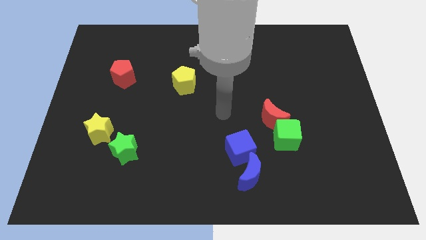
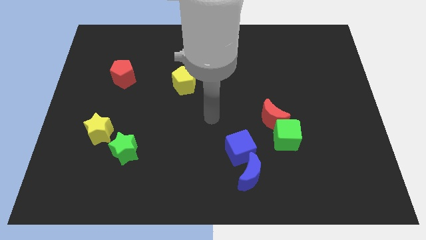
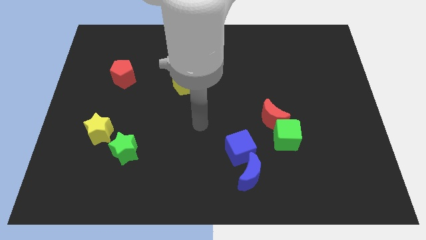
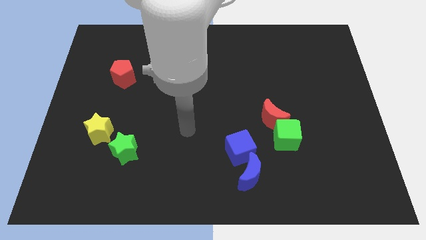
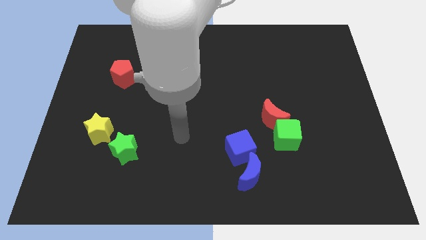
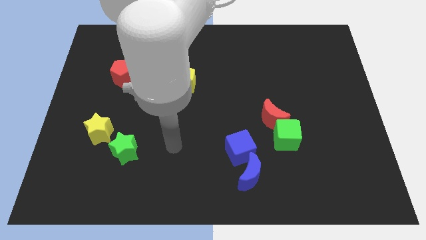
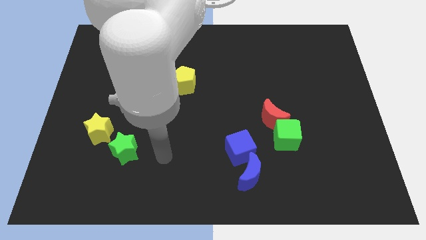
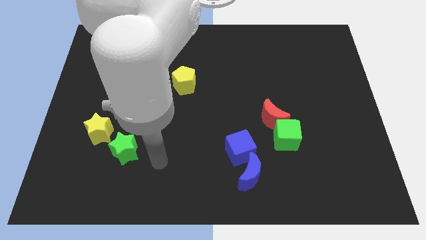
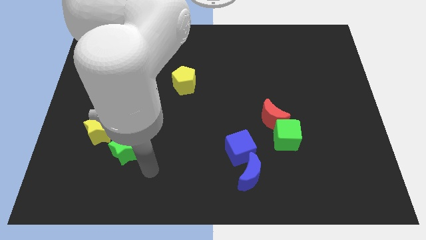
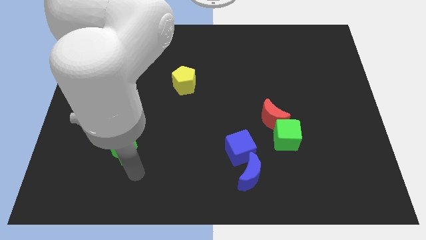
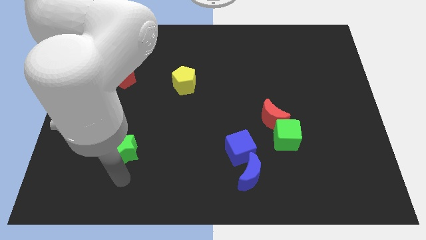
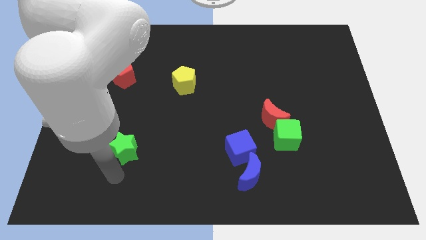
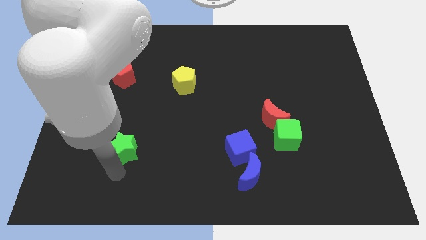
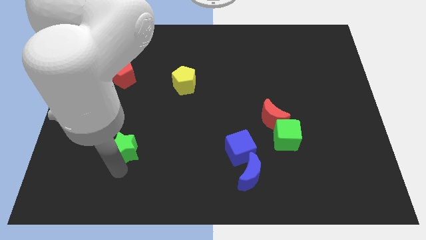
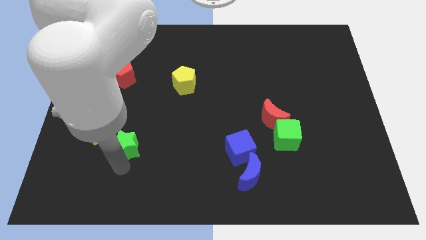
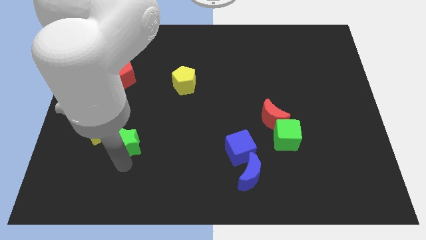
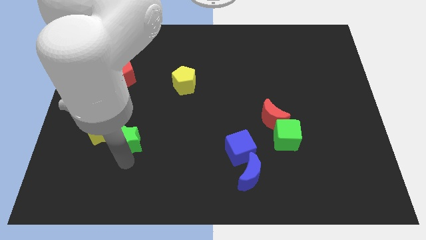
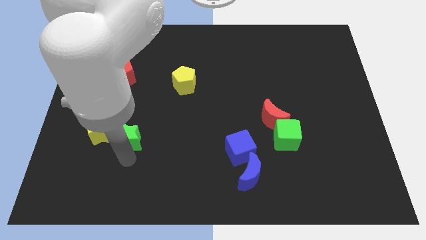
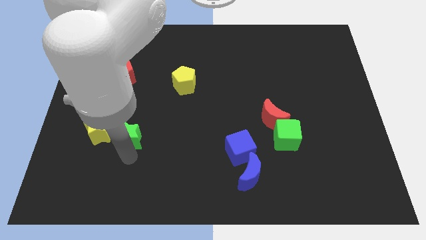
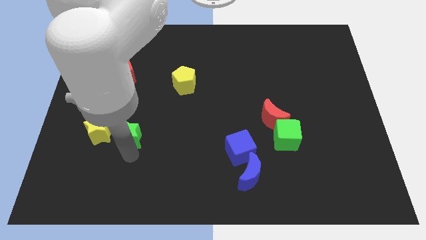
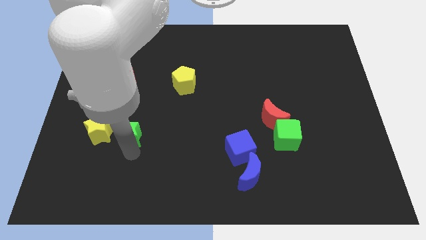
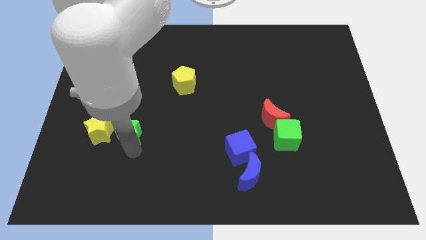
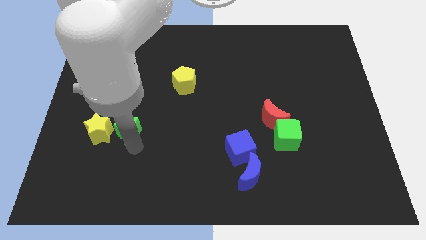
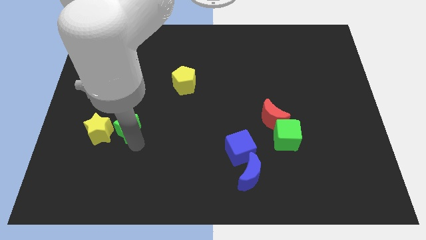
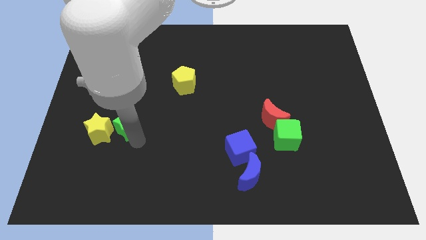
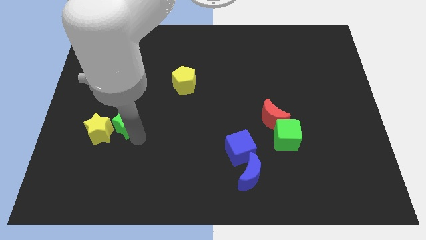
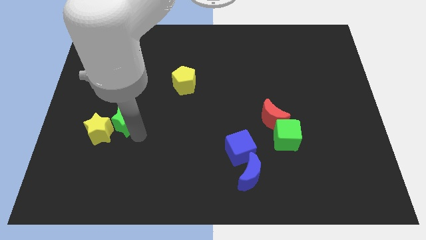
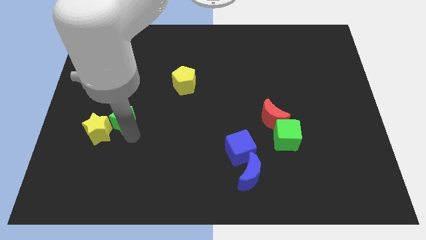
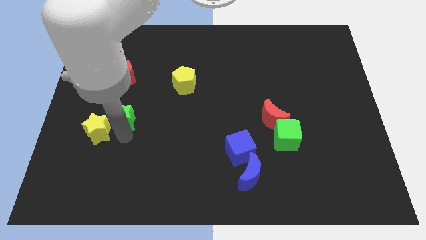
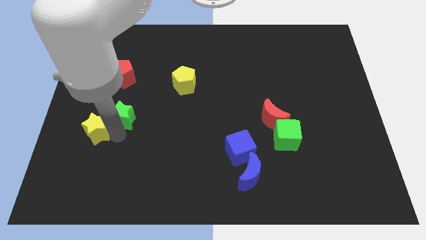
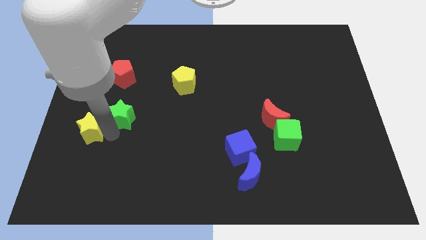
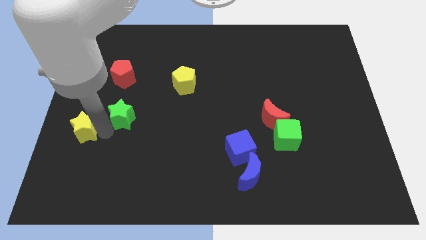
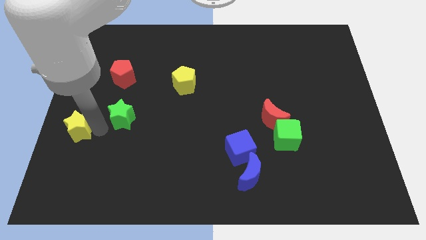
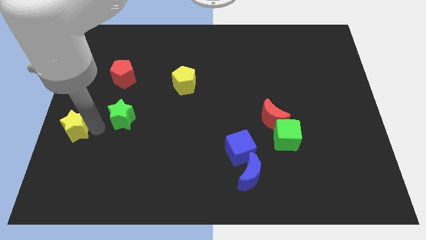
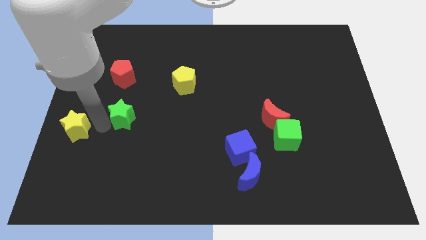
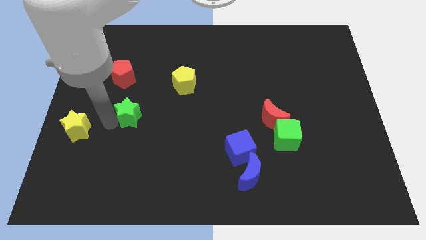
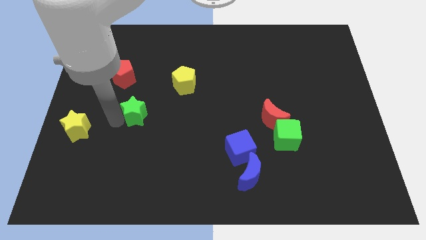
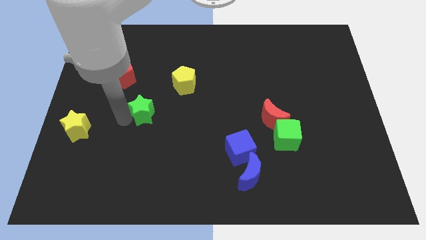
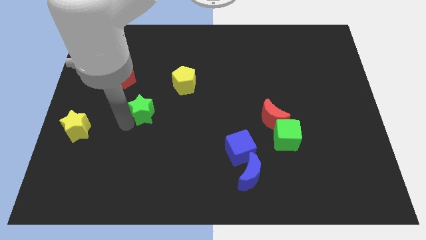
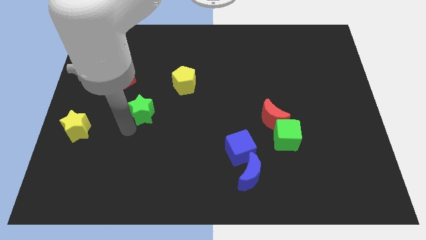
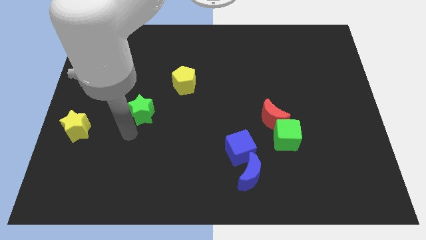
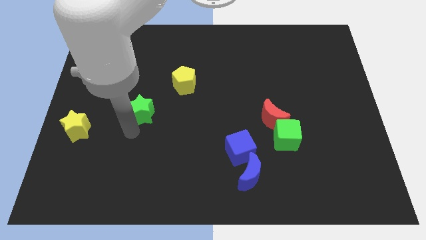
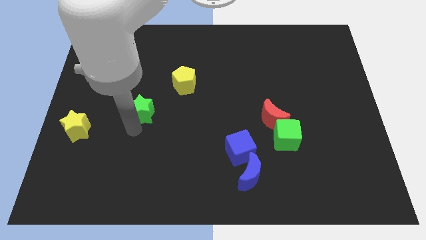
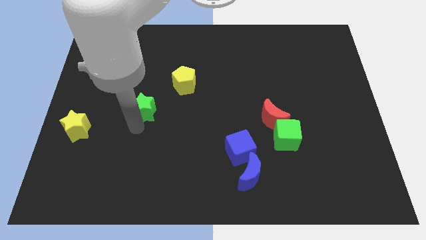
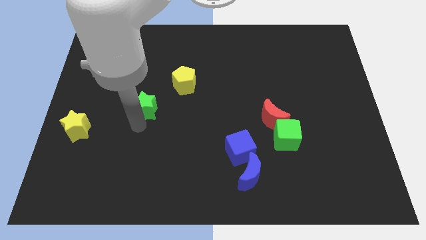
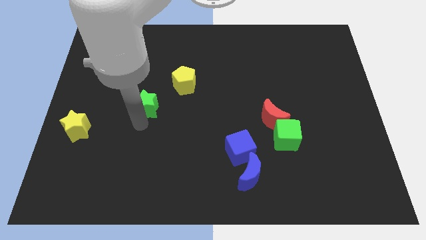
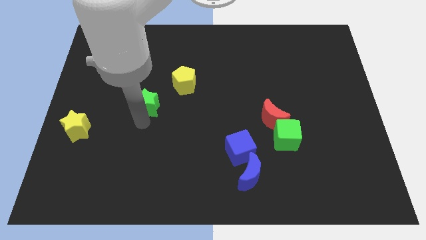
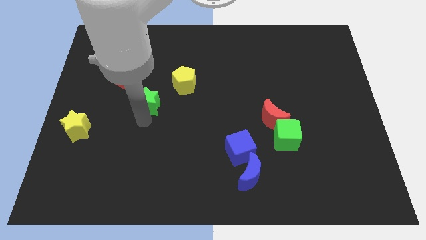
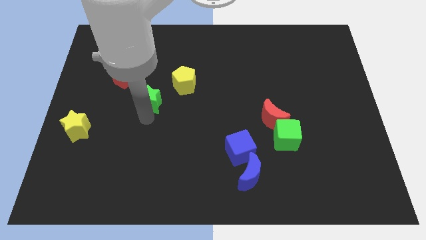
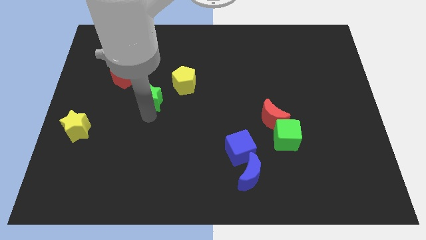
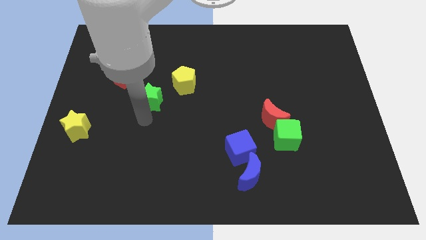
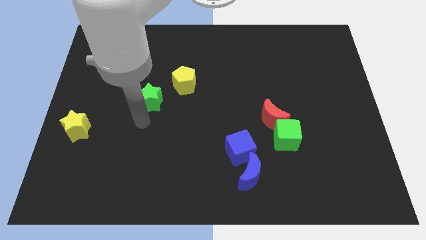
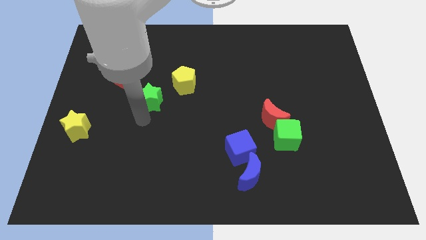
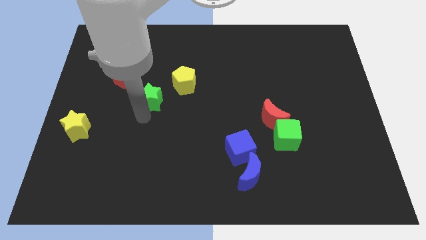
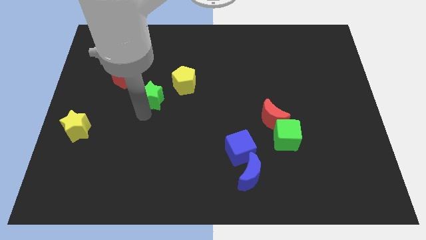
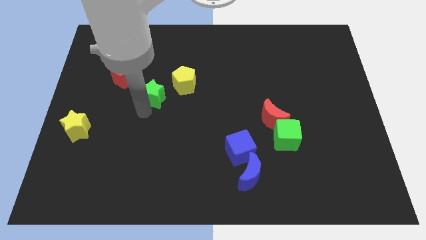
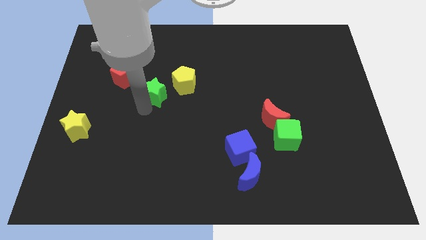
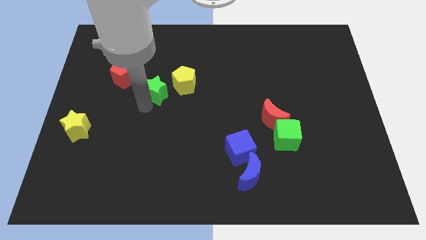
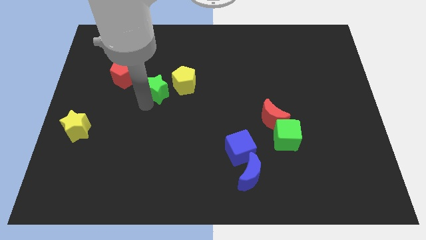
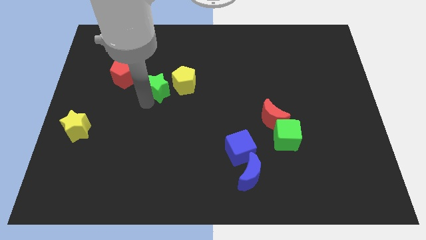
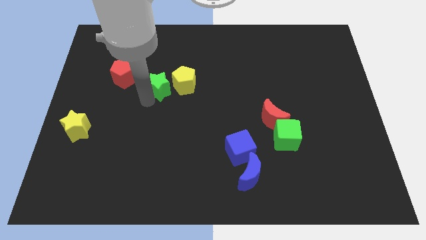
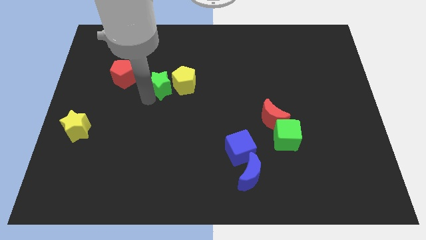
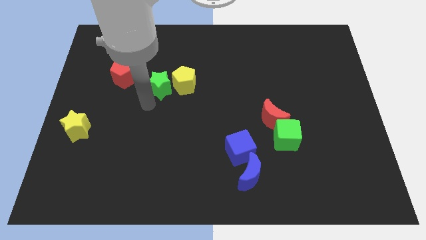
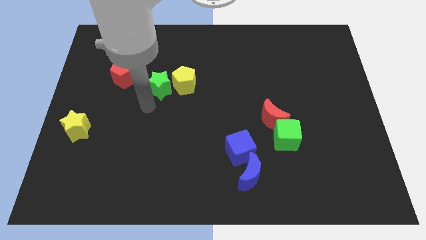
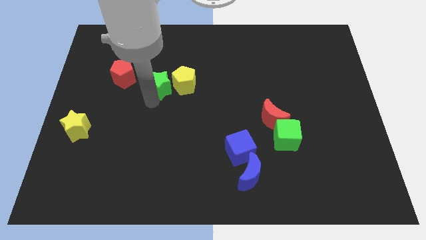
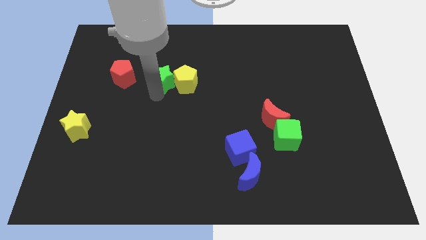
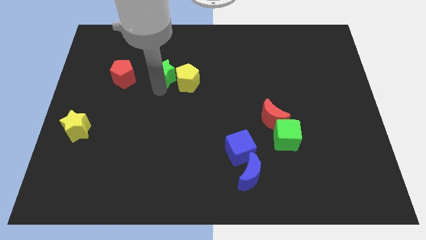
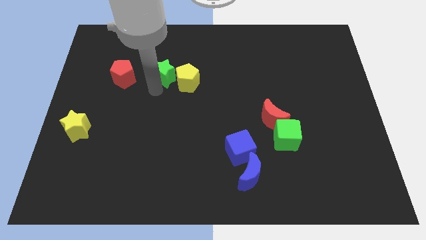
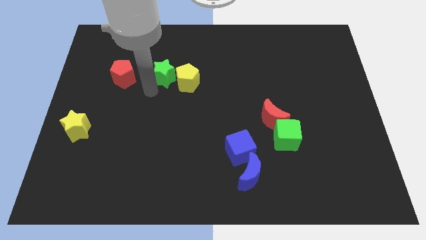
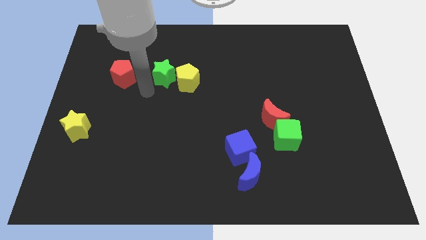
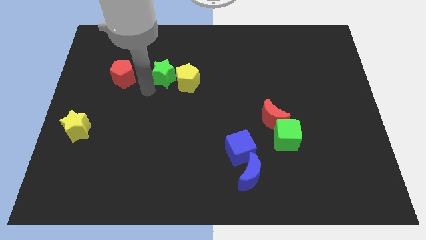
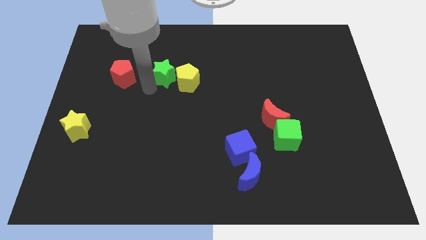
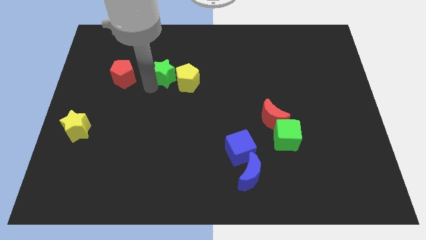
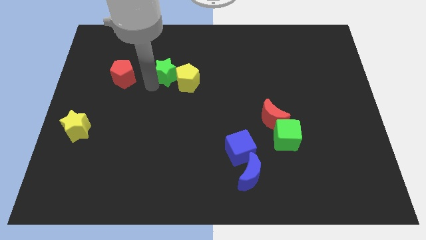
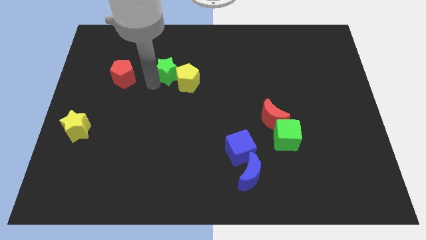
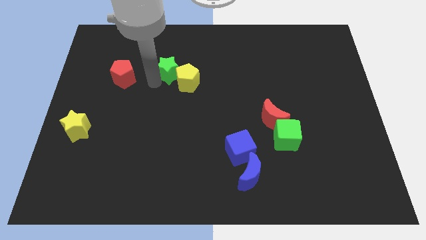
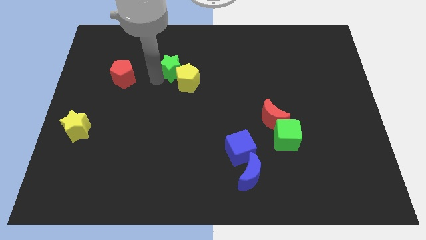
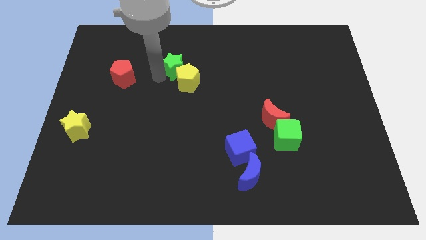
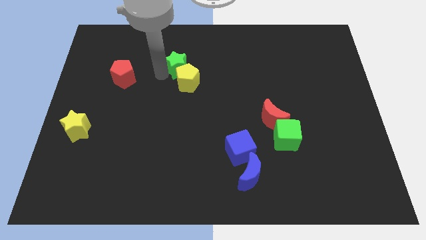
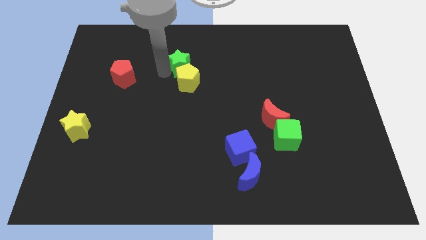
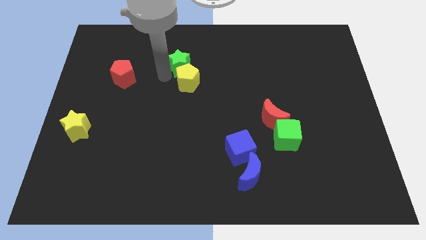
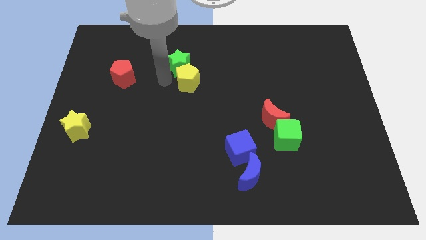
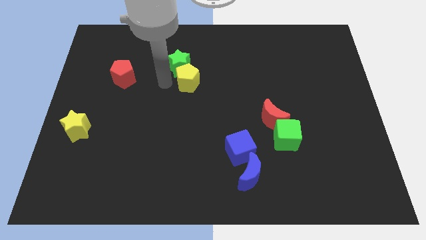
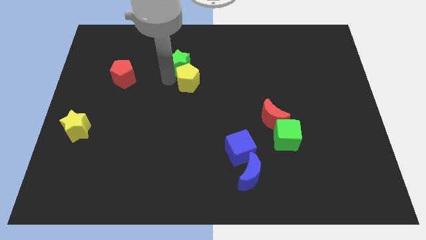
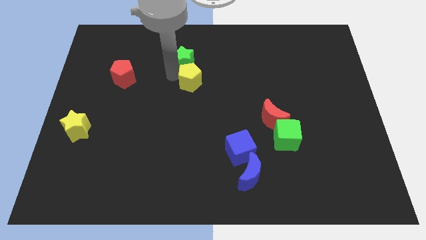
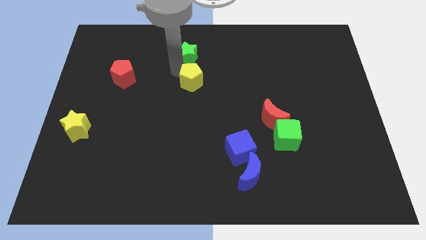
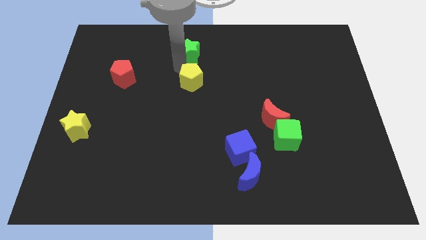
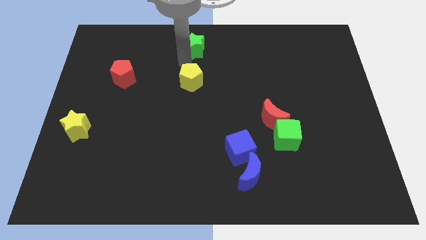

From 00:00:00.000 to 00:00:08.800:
move the green star to the top
